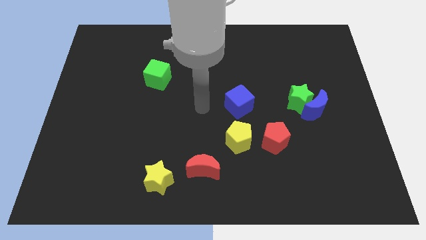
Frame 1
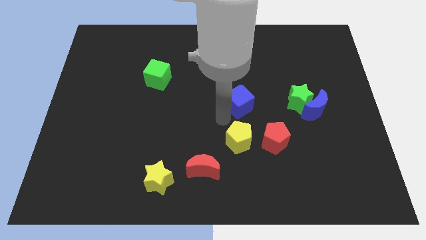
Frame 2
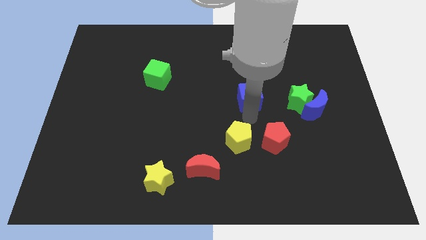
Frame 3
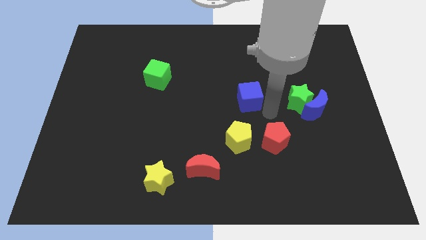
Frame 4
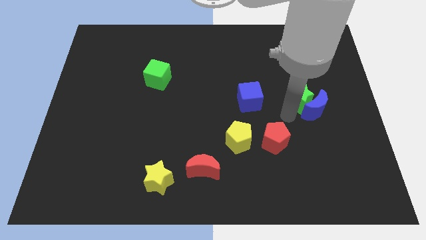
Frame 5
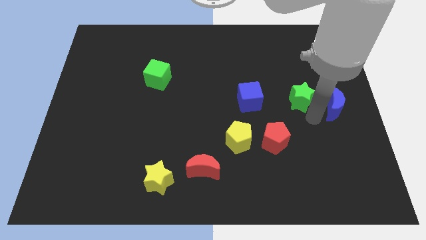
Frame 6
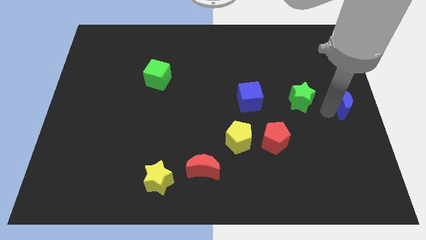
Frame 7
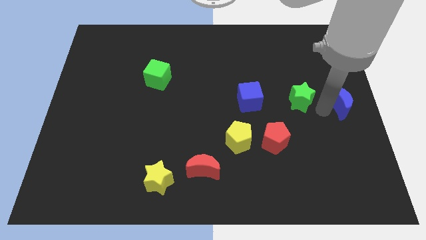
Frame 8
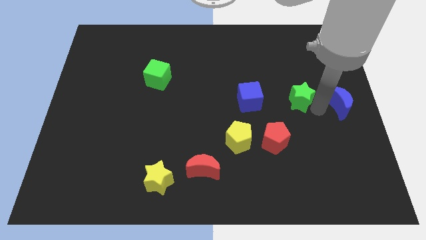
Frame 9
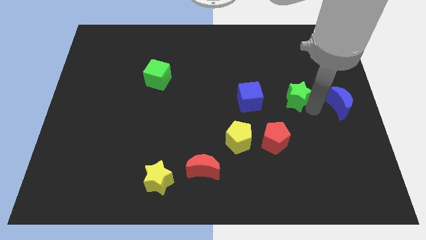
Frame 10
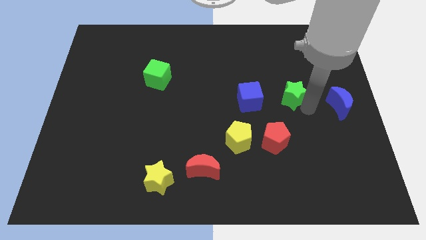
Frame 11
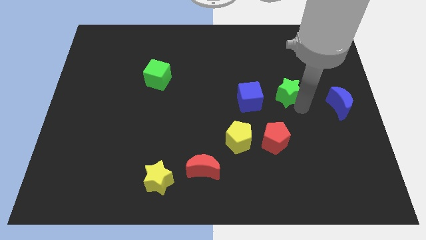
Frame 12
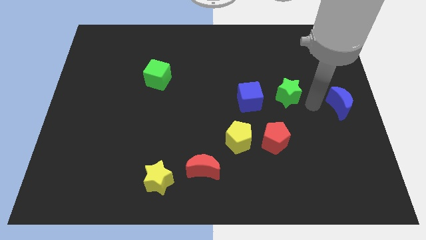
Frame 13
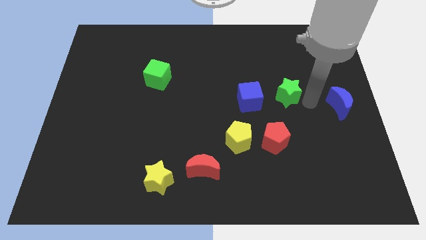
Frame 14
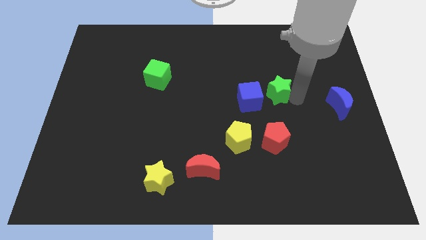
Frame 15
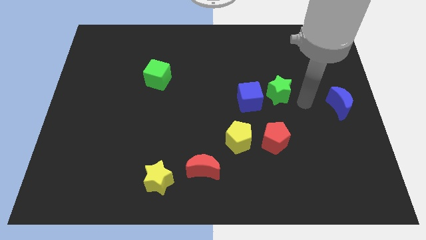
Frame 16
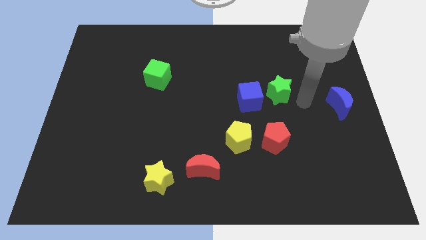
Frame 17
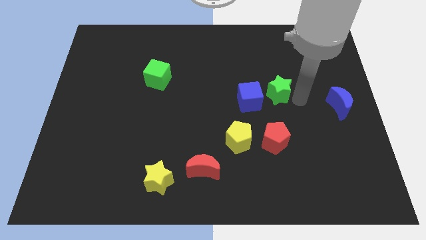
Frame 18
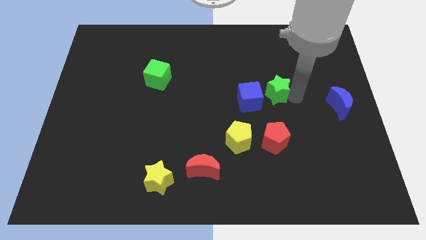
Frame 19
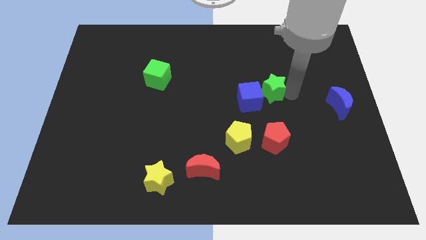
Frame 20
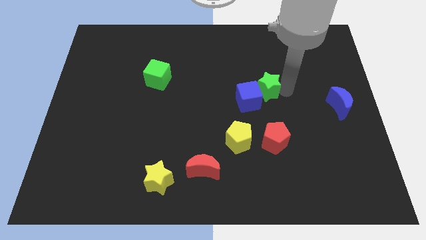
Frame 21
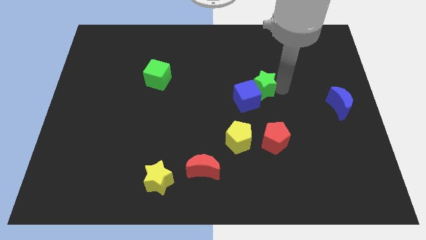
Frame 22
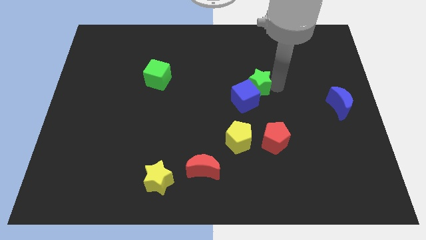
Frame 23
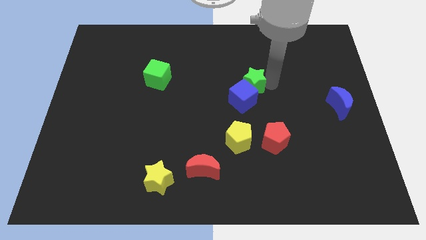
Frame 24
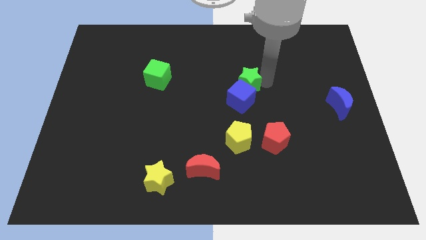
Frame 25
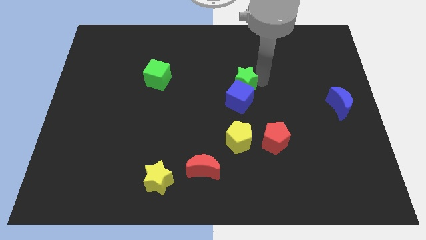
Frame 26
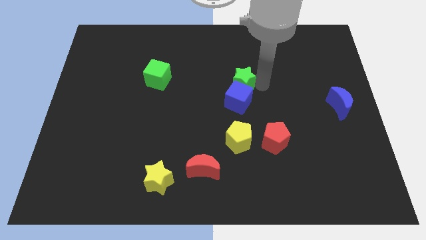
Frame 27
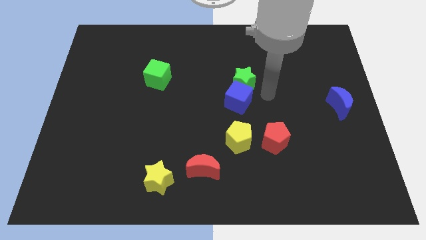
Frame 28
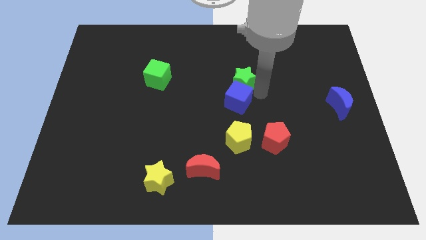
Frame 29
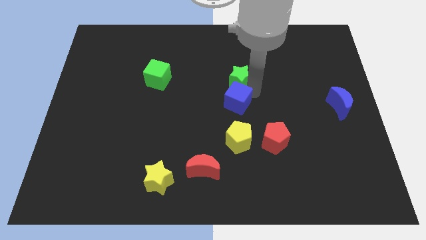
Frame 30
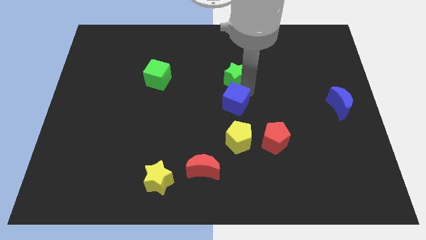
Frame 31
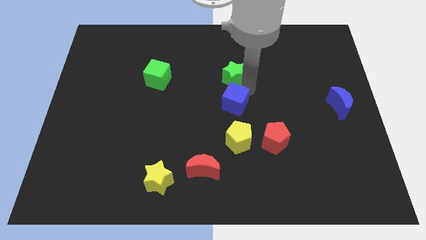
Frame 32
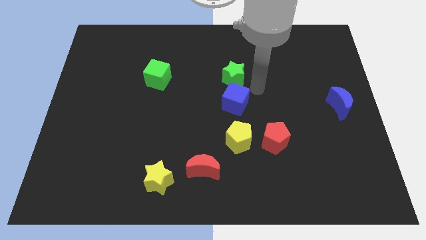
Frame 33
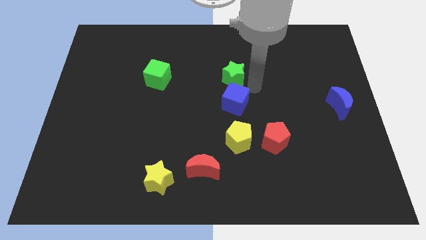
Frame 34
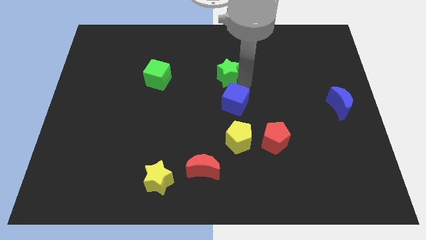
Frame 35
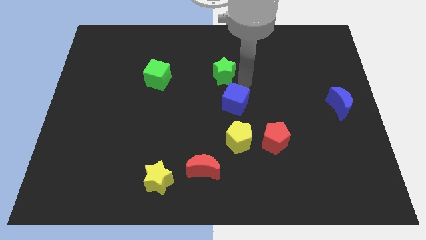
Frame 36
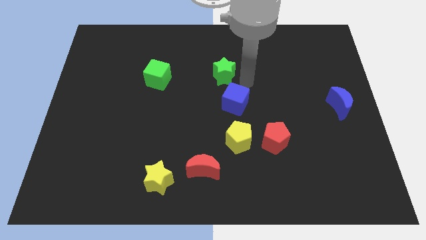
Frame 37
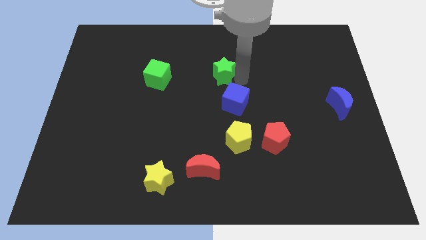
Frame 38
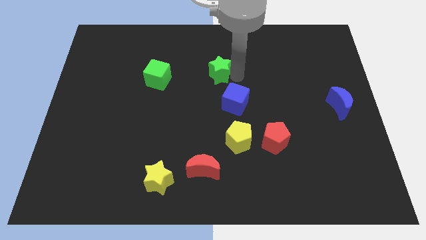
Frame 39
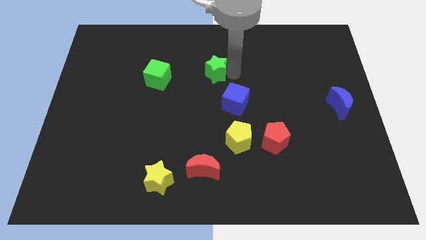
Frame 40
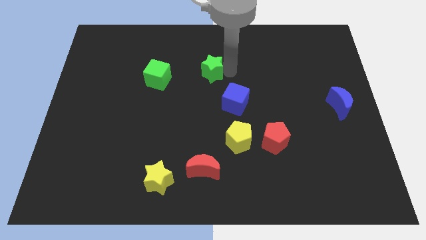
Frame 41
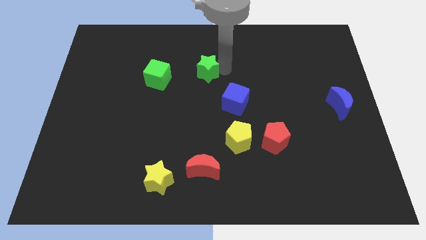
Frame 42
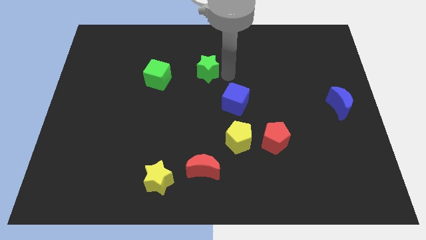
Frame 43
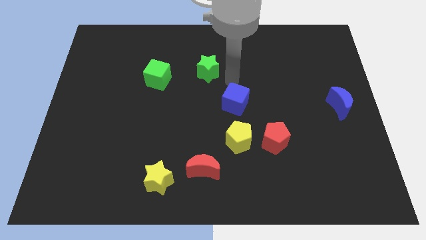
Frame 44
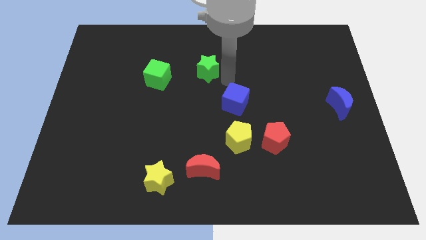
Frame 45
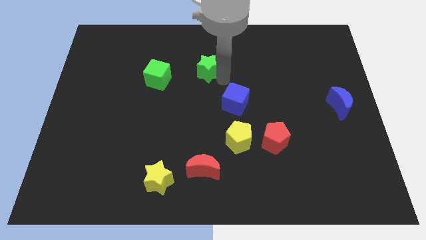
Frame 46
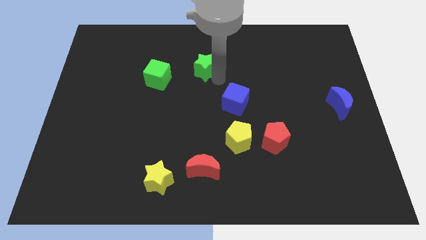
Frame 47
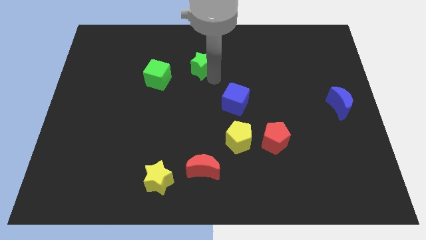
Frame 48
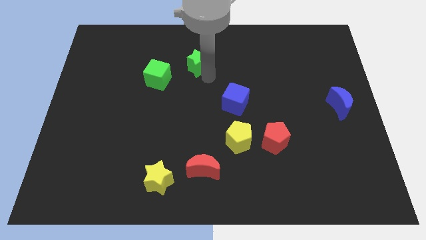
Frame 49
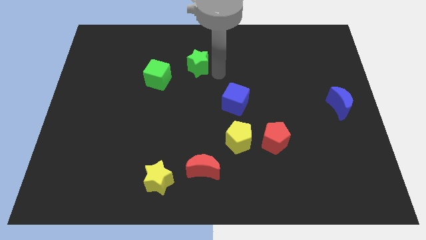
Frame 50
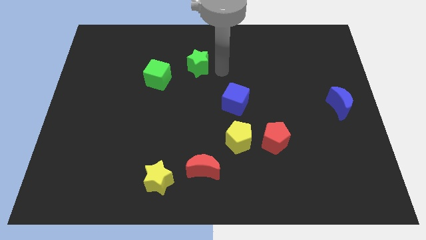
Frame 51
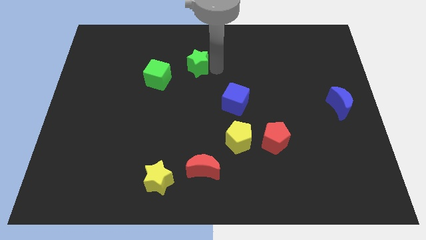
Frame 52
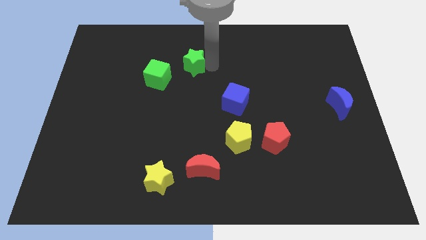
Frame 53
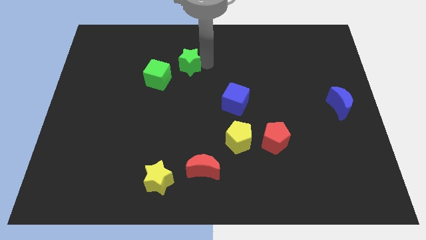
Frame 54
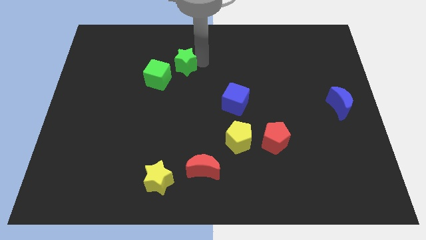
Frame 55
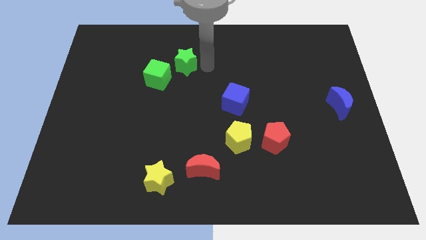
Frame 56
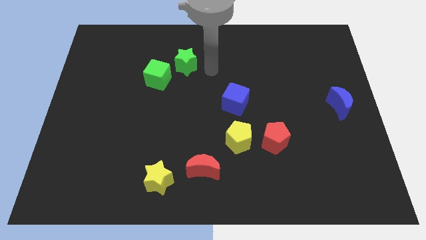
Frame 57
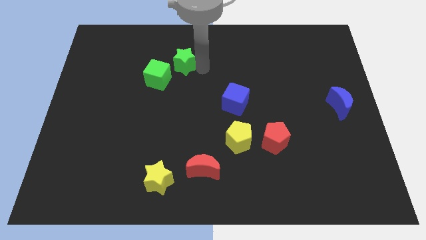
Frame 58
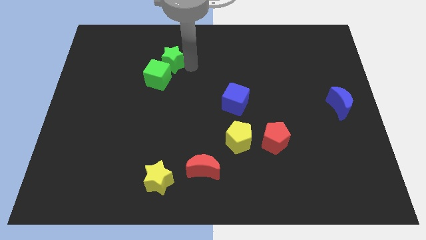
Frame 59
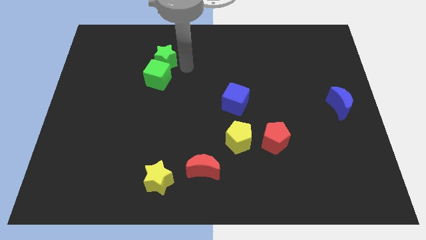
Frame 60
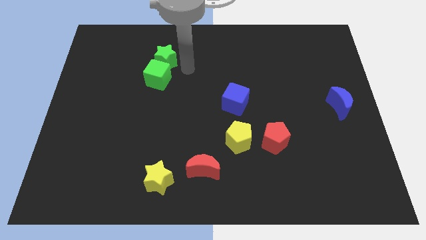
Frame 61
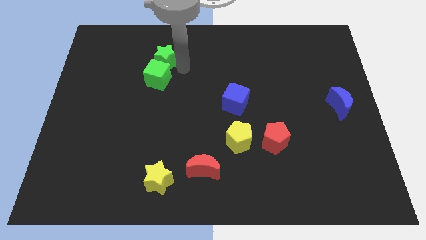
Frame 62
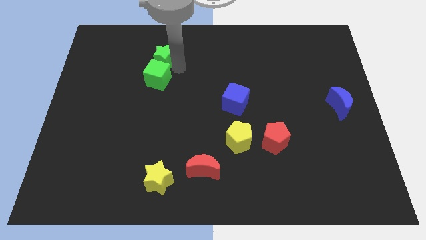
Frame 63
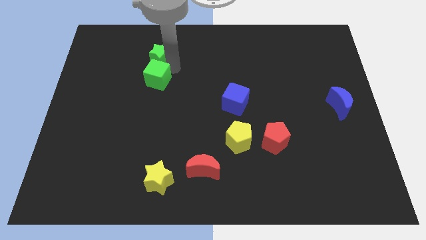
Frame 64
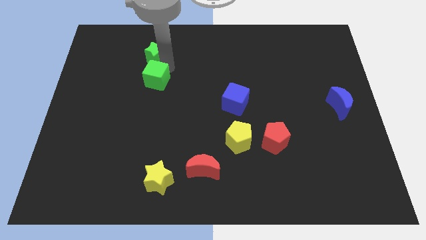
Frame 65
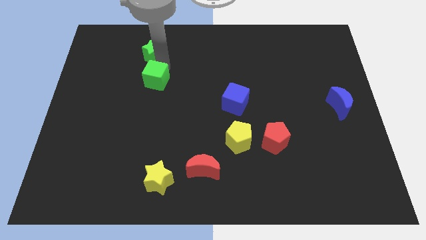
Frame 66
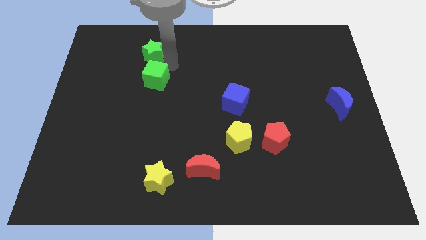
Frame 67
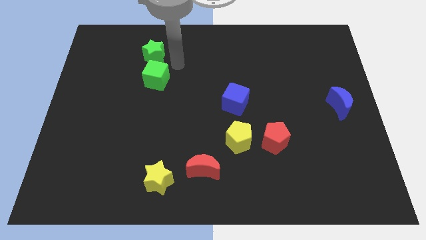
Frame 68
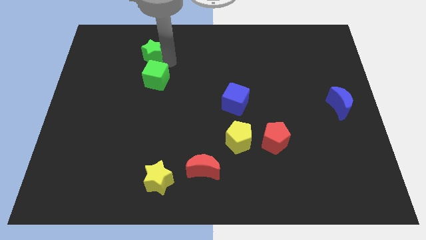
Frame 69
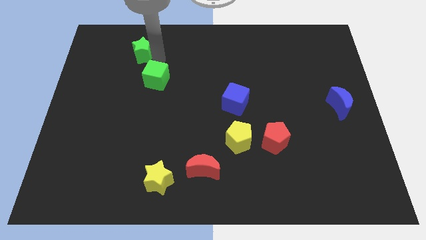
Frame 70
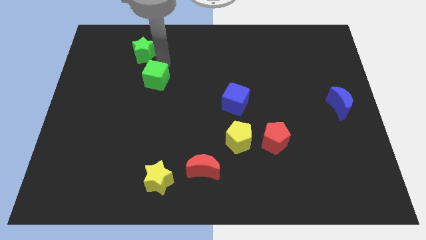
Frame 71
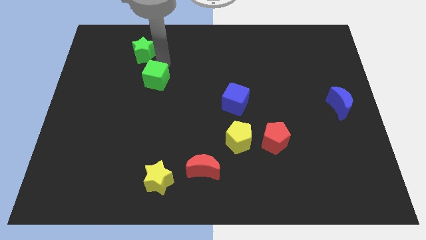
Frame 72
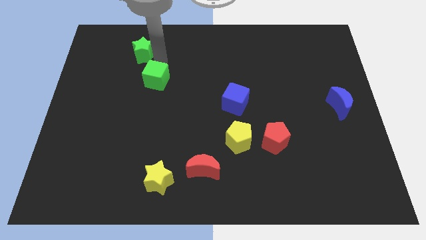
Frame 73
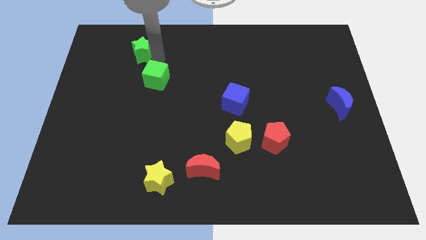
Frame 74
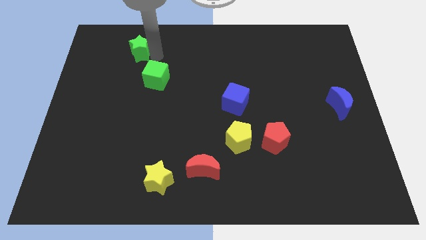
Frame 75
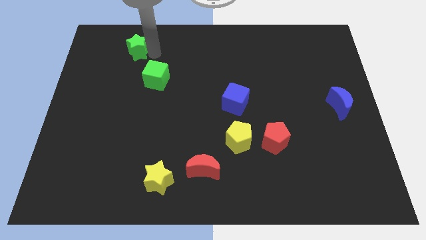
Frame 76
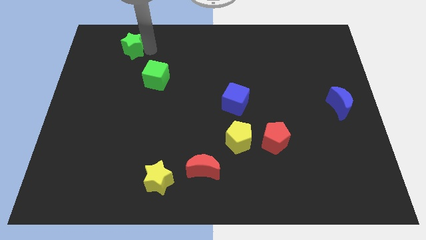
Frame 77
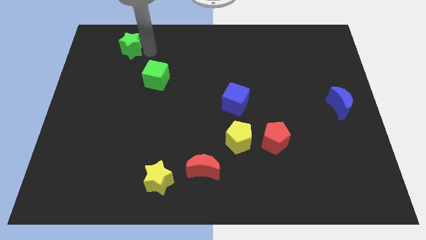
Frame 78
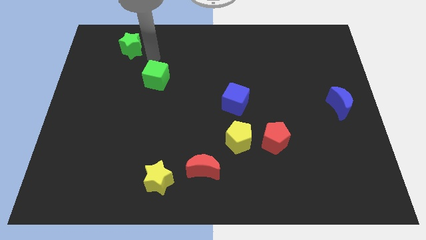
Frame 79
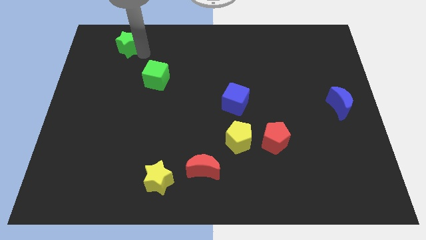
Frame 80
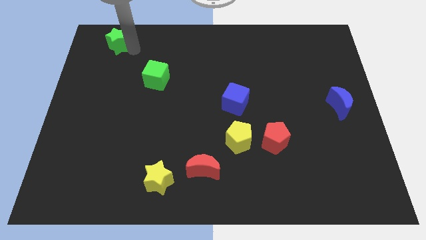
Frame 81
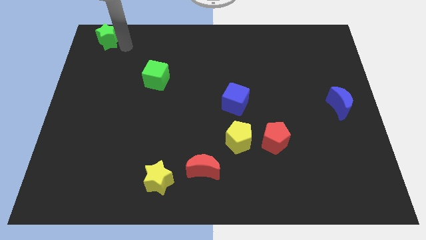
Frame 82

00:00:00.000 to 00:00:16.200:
push the green star to the top left of the board
